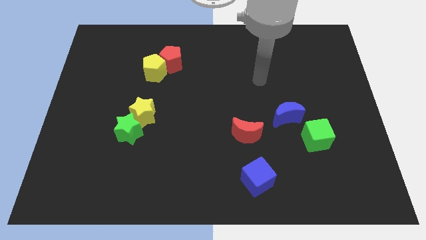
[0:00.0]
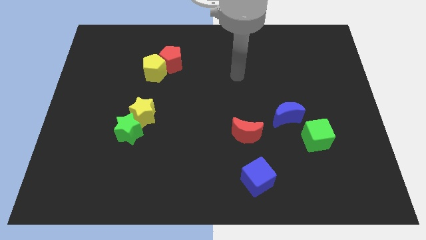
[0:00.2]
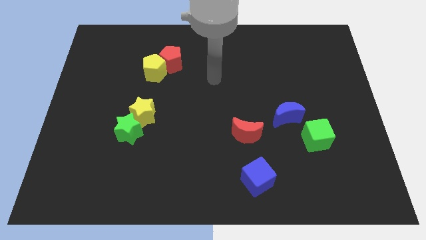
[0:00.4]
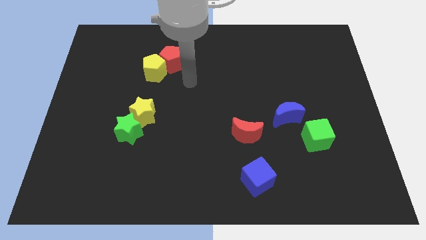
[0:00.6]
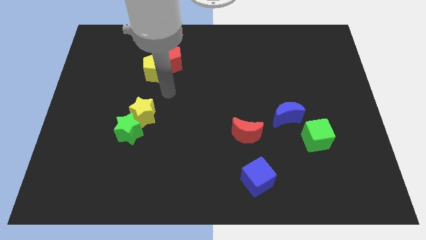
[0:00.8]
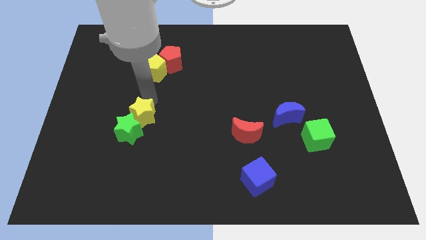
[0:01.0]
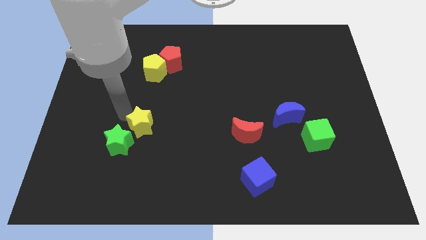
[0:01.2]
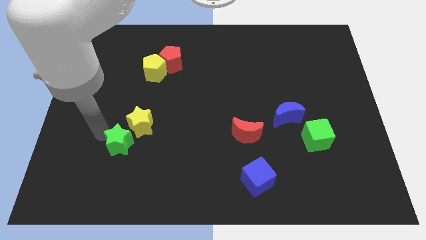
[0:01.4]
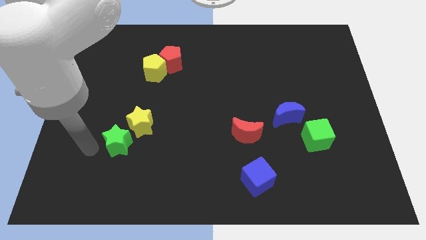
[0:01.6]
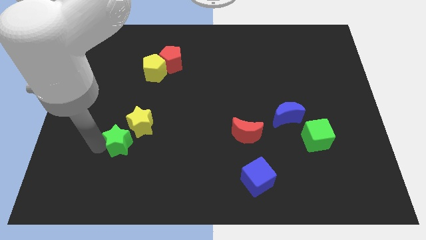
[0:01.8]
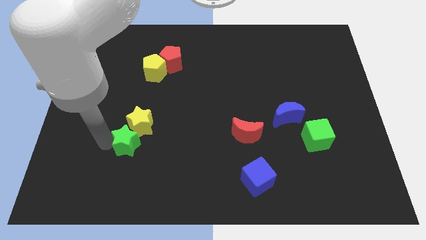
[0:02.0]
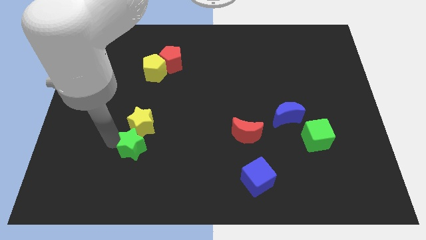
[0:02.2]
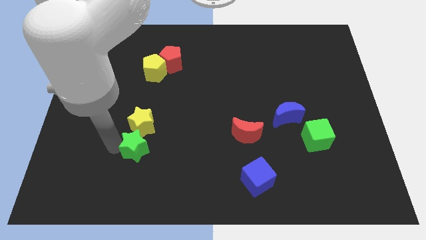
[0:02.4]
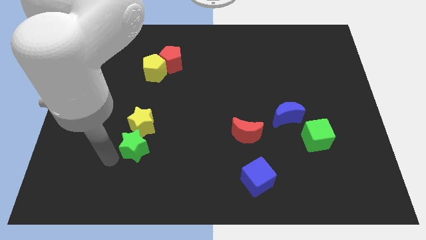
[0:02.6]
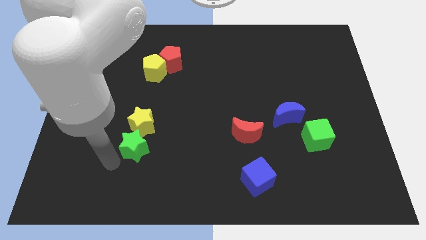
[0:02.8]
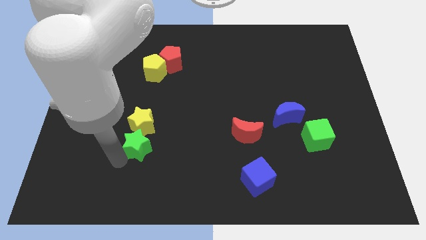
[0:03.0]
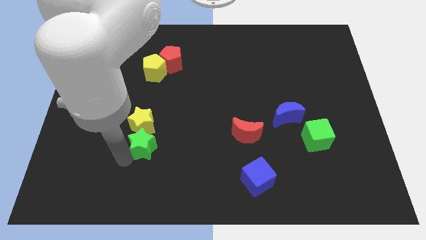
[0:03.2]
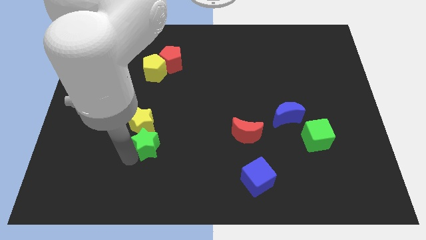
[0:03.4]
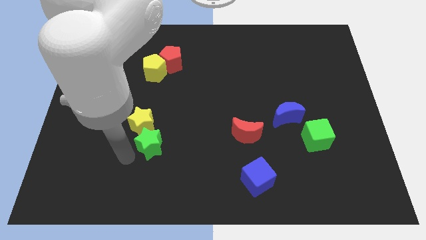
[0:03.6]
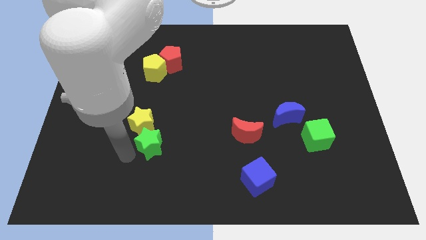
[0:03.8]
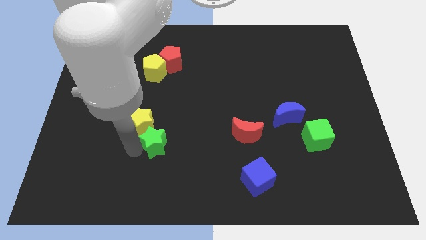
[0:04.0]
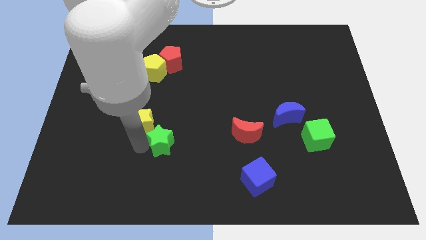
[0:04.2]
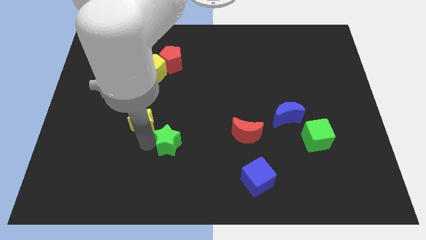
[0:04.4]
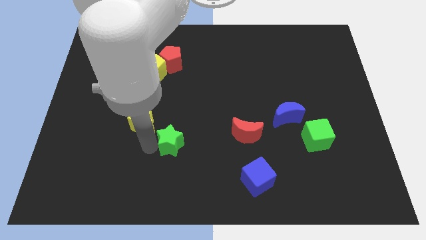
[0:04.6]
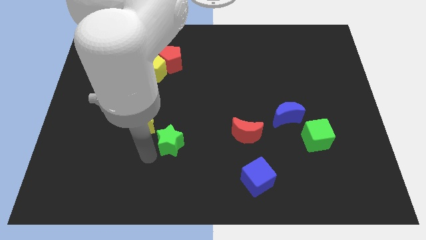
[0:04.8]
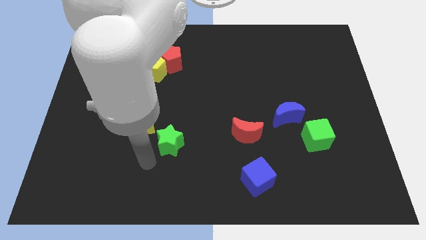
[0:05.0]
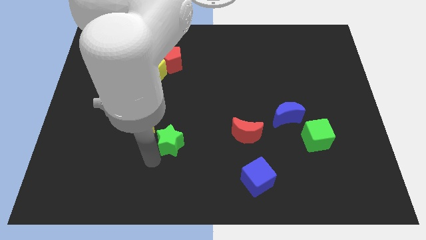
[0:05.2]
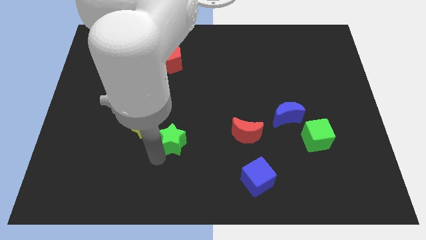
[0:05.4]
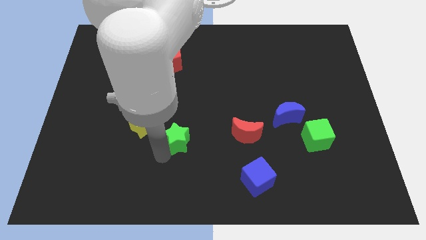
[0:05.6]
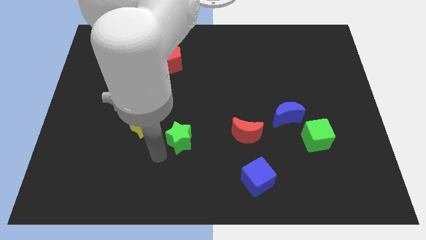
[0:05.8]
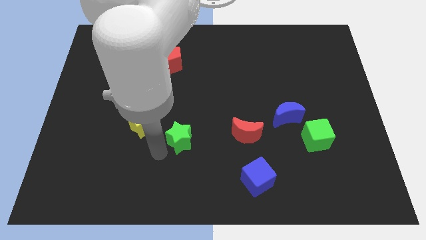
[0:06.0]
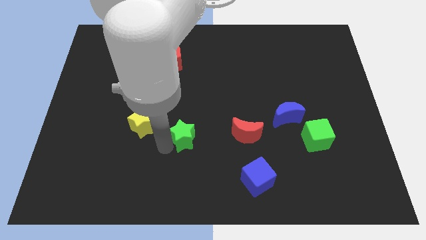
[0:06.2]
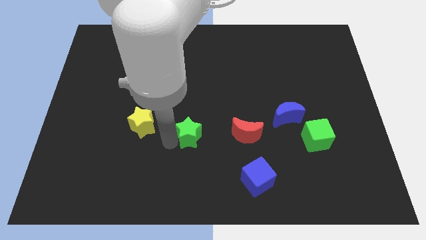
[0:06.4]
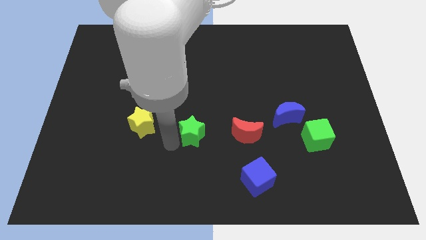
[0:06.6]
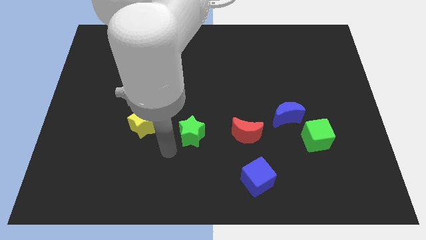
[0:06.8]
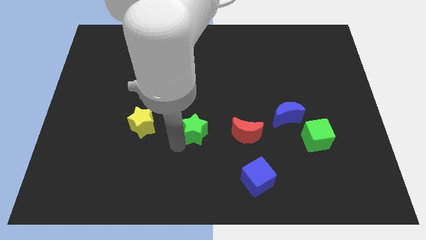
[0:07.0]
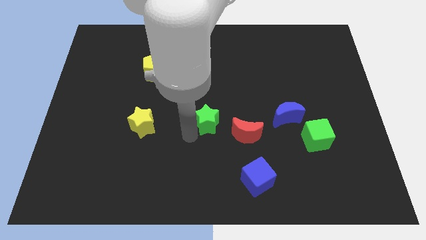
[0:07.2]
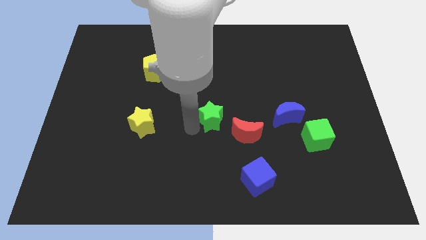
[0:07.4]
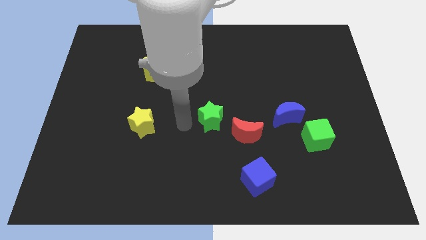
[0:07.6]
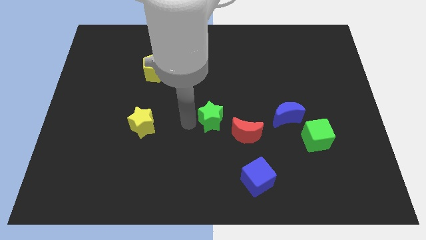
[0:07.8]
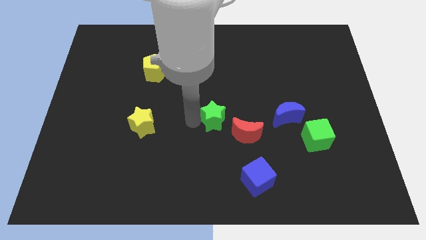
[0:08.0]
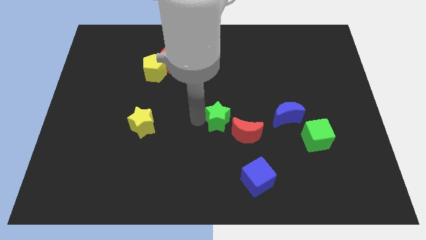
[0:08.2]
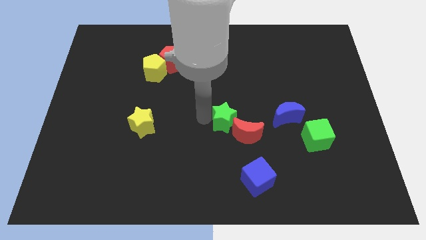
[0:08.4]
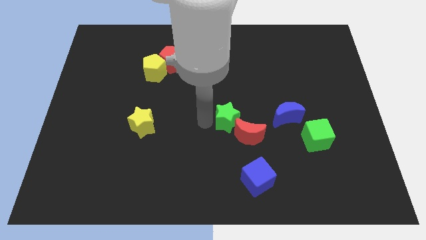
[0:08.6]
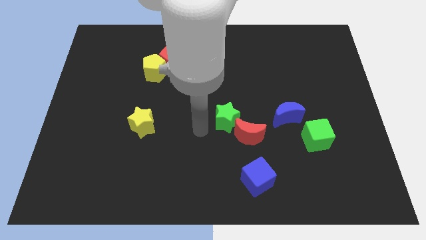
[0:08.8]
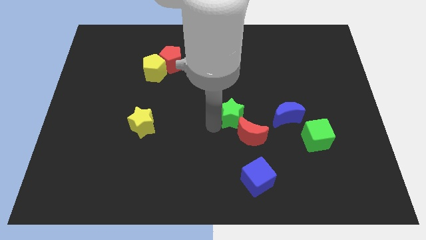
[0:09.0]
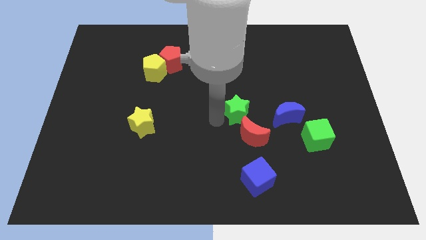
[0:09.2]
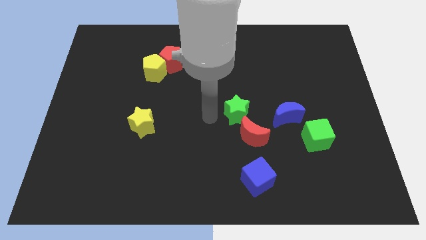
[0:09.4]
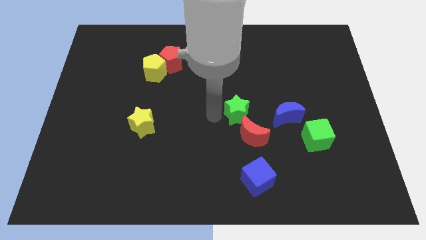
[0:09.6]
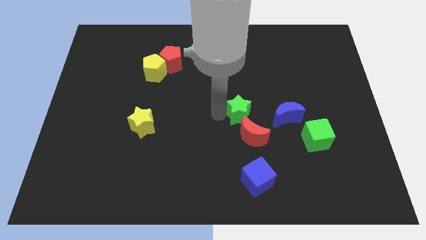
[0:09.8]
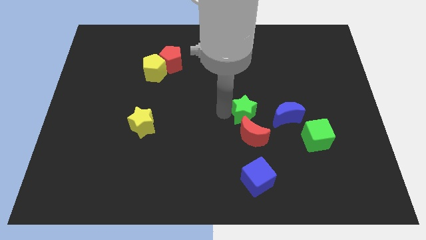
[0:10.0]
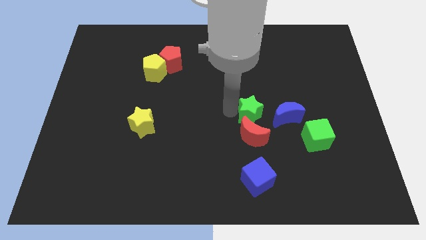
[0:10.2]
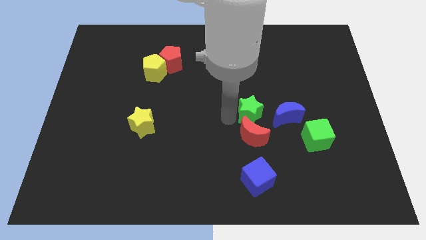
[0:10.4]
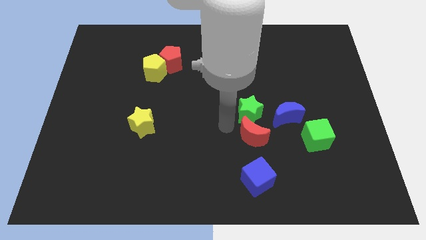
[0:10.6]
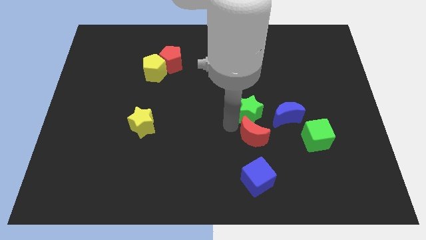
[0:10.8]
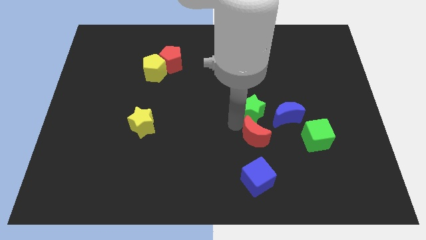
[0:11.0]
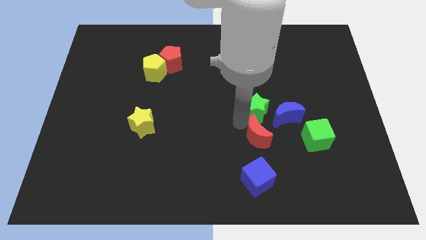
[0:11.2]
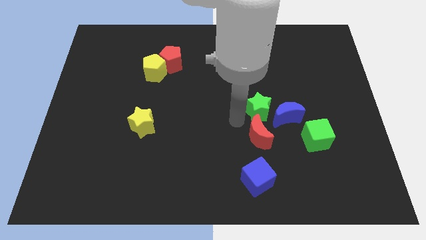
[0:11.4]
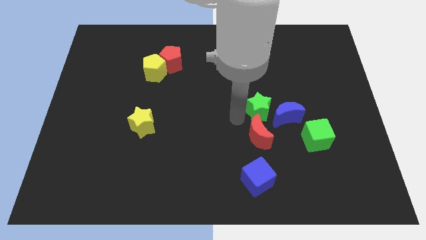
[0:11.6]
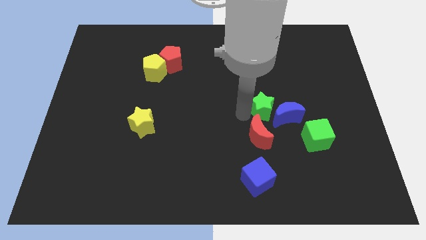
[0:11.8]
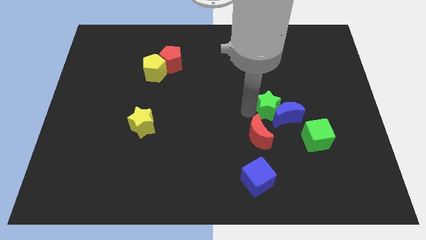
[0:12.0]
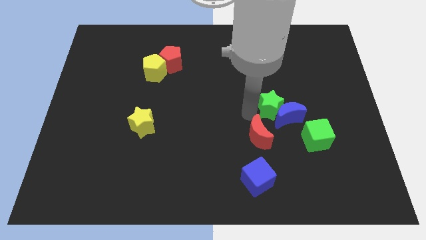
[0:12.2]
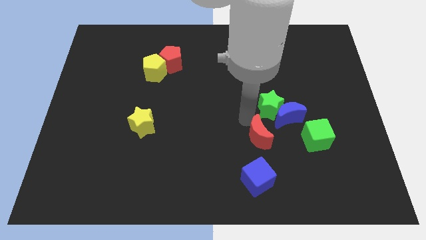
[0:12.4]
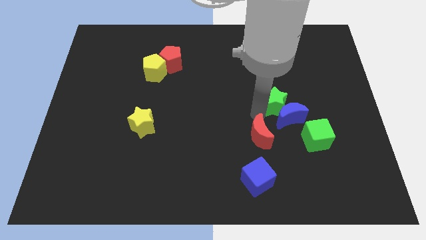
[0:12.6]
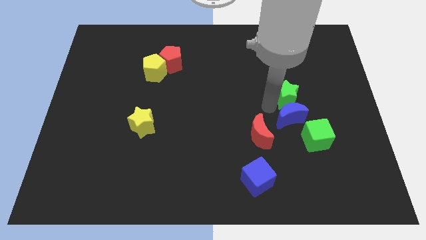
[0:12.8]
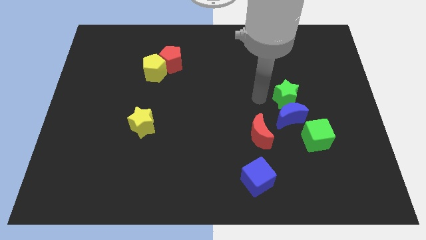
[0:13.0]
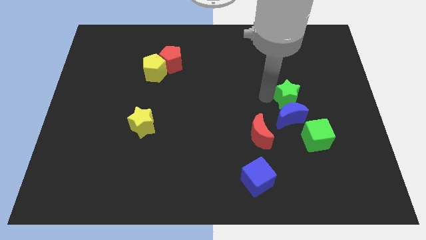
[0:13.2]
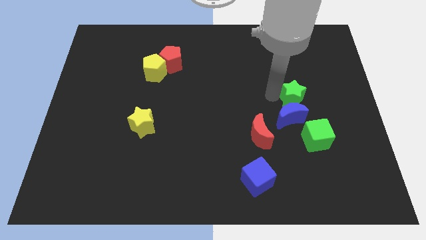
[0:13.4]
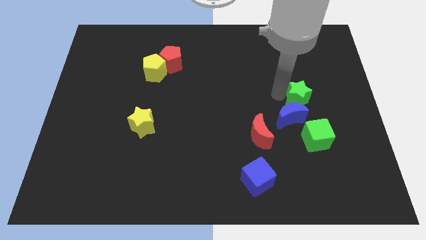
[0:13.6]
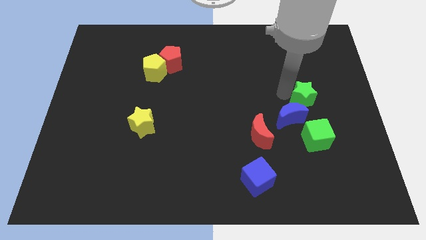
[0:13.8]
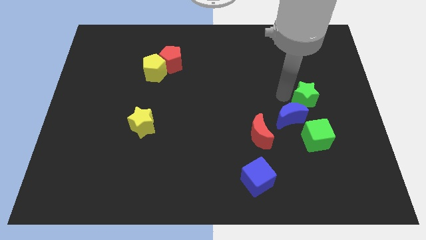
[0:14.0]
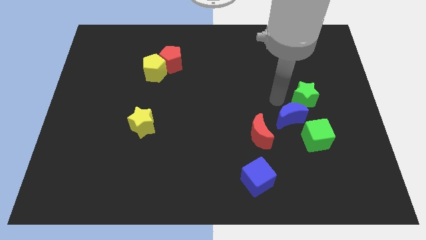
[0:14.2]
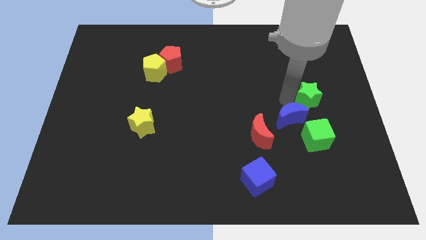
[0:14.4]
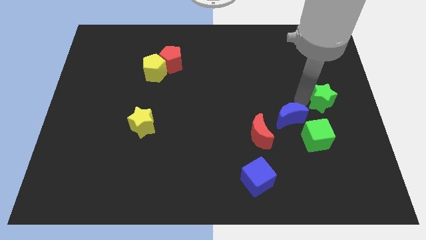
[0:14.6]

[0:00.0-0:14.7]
move the green star to the right side of the board
